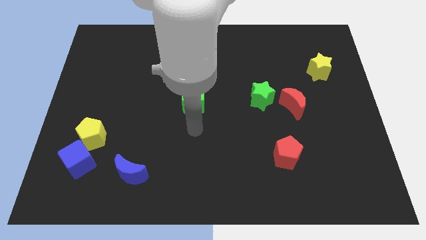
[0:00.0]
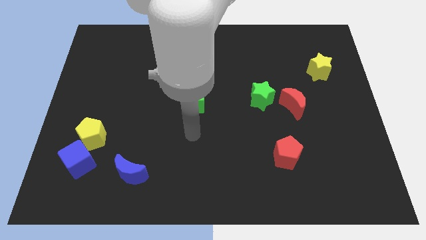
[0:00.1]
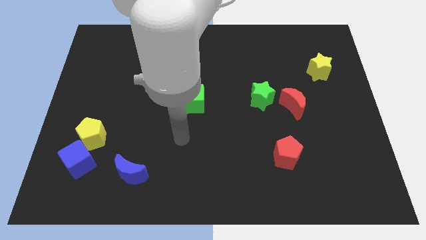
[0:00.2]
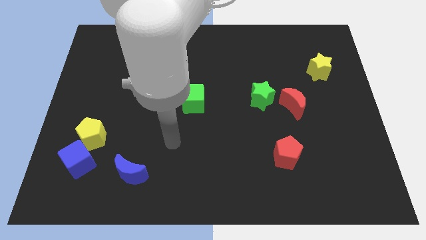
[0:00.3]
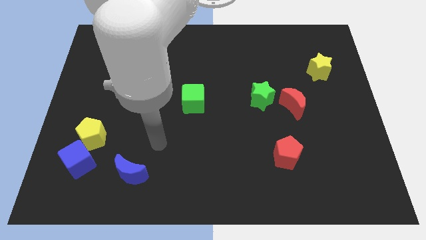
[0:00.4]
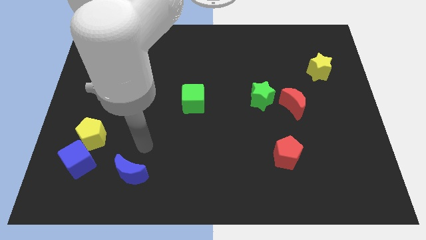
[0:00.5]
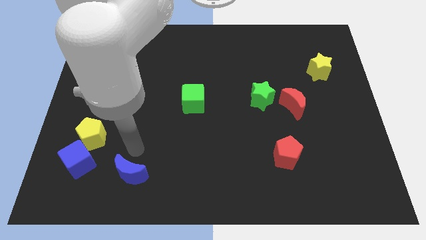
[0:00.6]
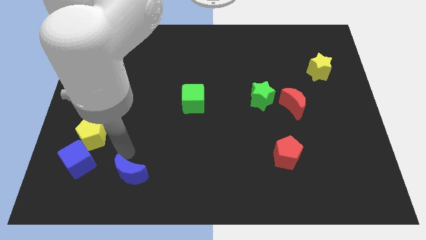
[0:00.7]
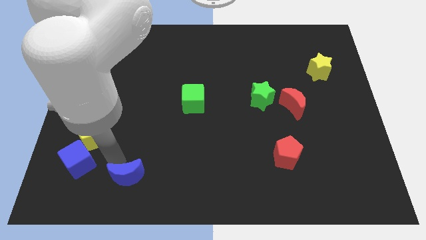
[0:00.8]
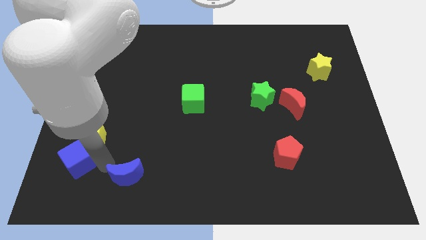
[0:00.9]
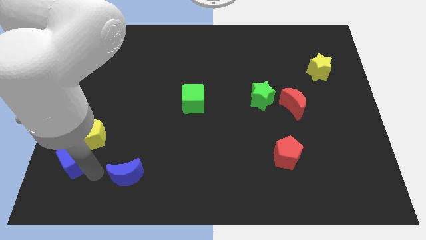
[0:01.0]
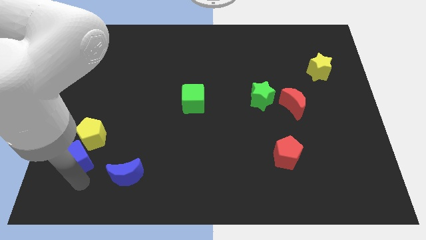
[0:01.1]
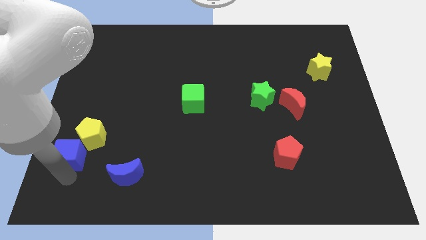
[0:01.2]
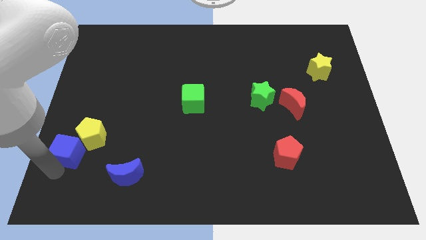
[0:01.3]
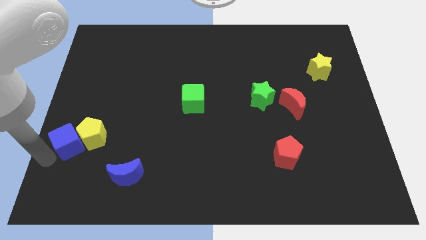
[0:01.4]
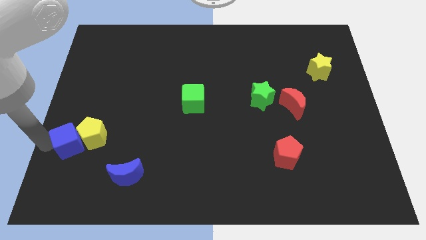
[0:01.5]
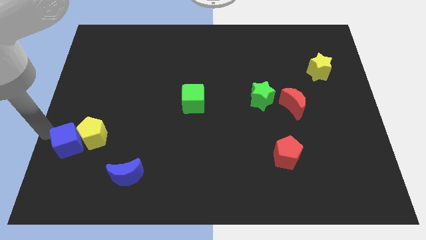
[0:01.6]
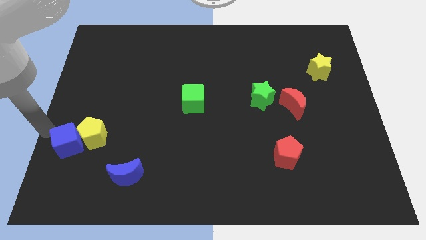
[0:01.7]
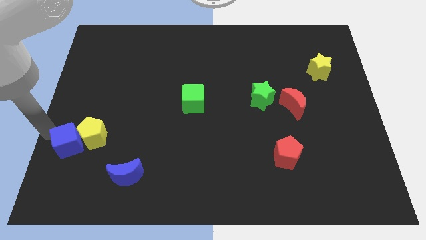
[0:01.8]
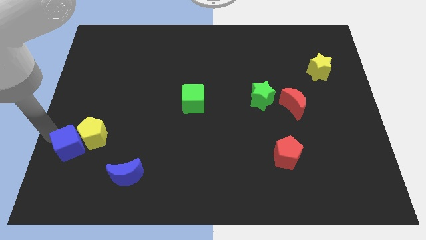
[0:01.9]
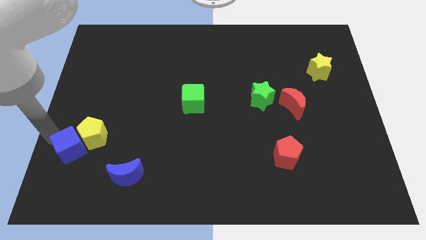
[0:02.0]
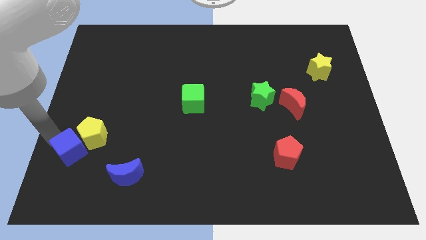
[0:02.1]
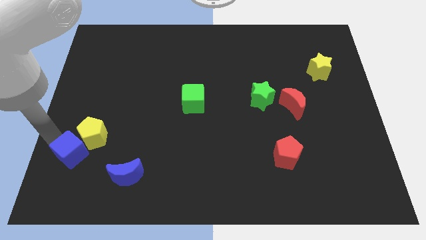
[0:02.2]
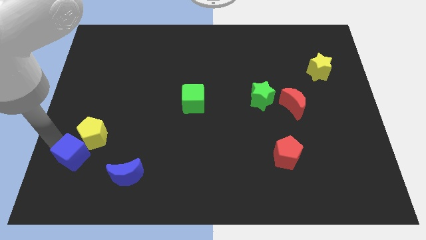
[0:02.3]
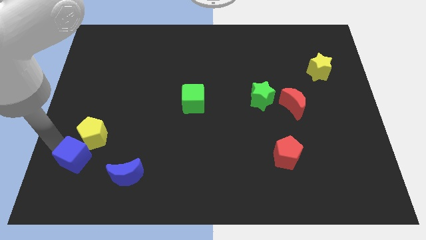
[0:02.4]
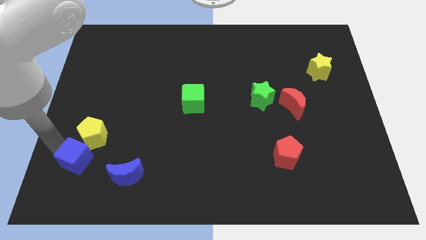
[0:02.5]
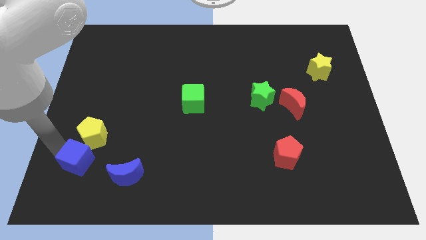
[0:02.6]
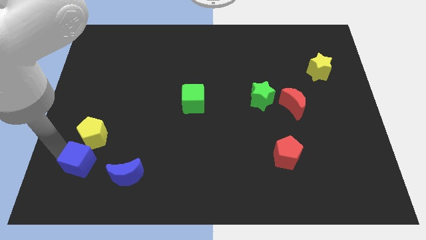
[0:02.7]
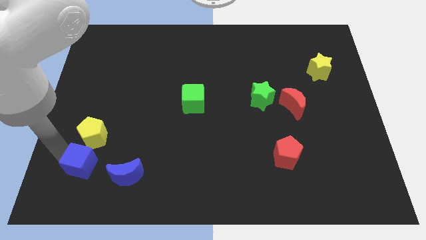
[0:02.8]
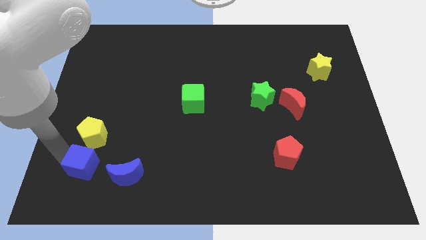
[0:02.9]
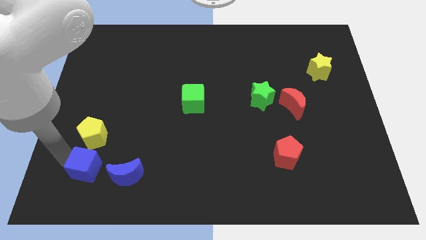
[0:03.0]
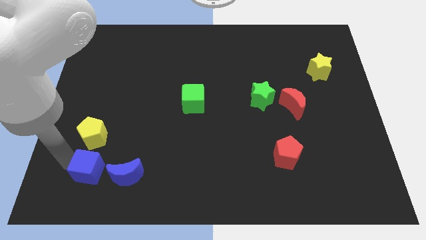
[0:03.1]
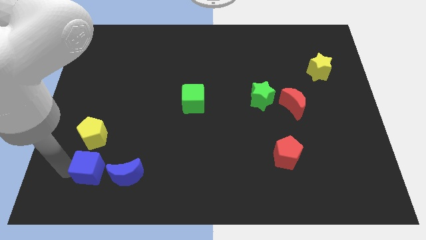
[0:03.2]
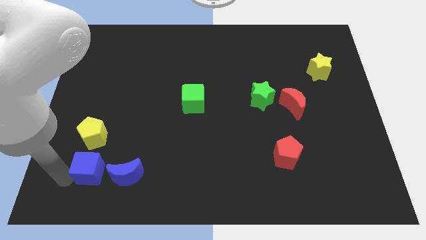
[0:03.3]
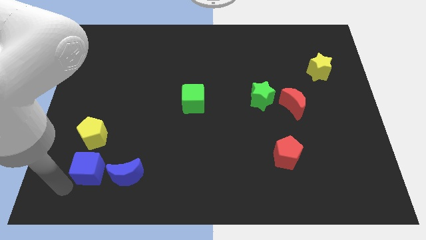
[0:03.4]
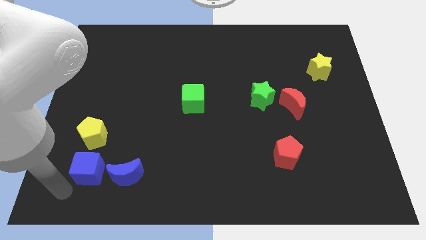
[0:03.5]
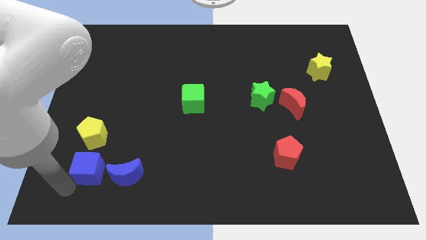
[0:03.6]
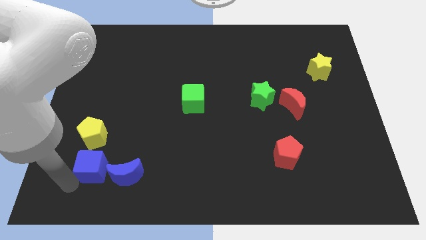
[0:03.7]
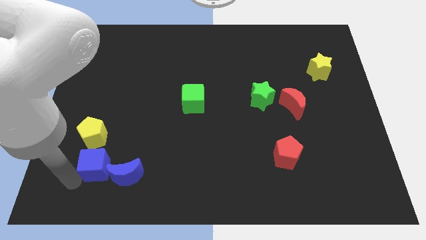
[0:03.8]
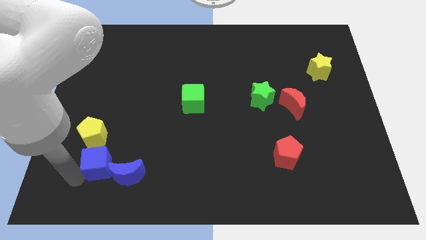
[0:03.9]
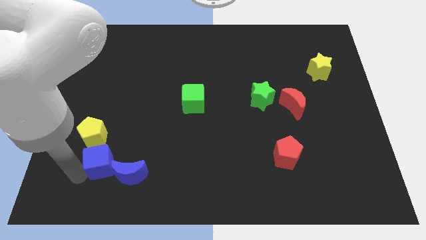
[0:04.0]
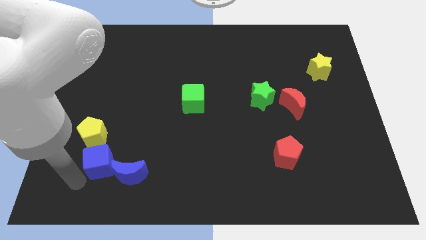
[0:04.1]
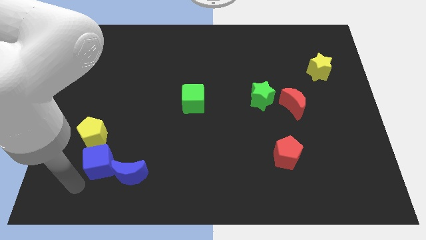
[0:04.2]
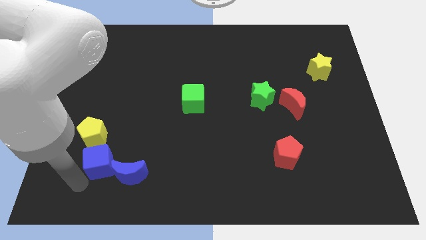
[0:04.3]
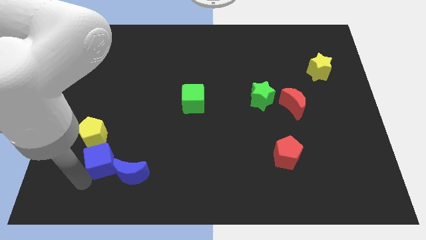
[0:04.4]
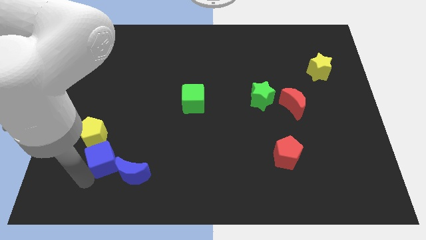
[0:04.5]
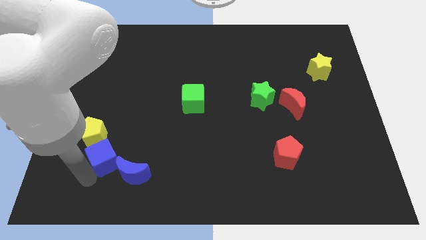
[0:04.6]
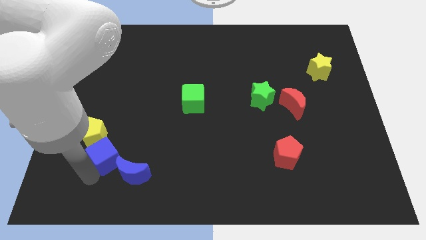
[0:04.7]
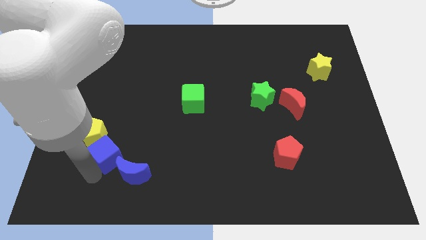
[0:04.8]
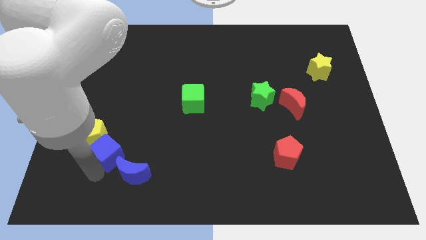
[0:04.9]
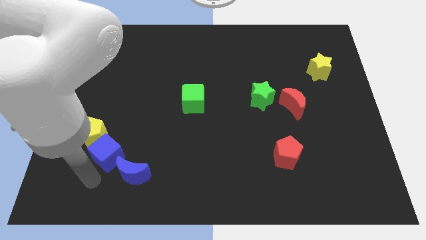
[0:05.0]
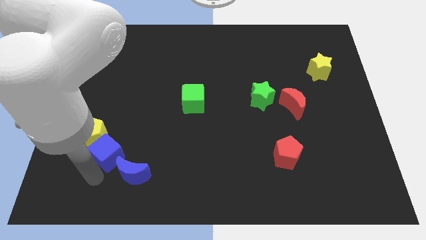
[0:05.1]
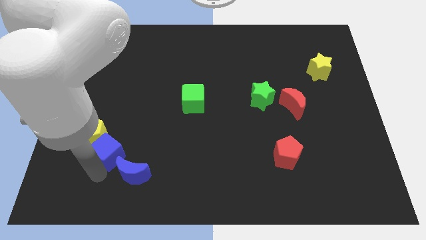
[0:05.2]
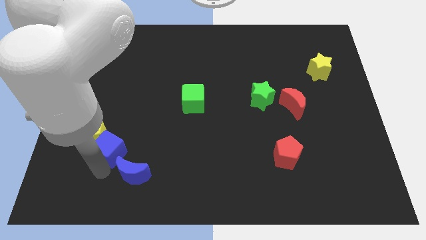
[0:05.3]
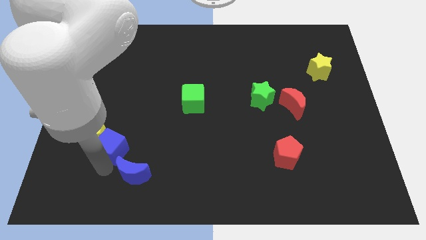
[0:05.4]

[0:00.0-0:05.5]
slightly slide the blue cube diagonally upwards and to the right

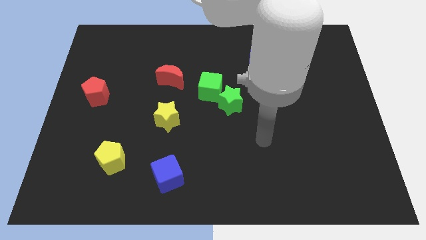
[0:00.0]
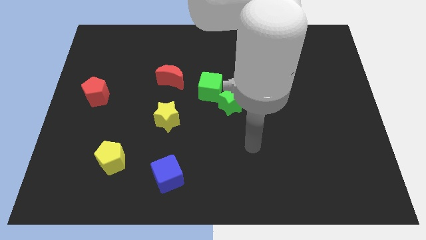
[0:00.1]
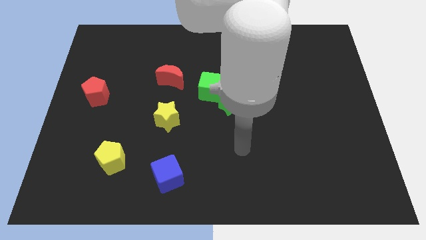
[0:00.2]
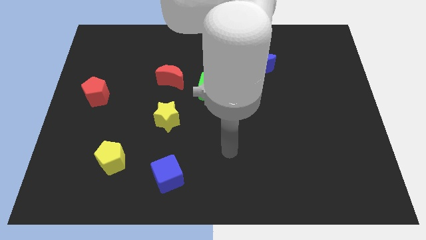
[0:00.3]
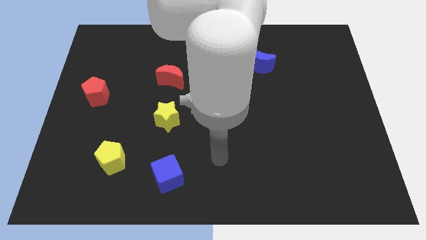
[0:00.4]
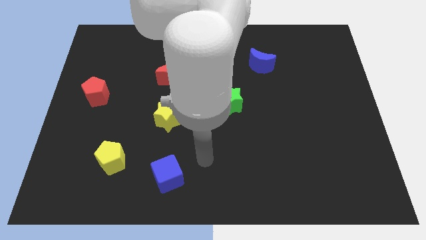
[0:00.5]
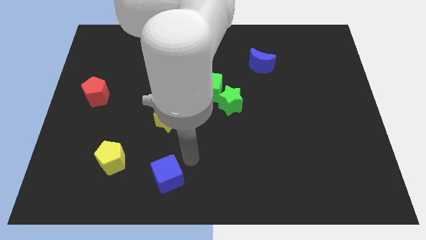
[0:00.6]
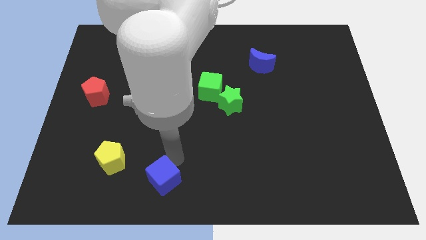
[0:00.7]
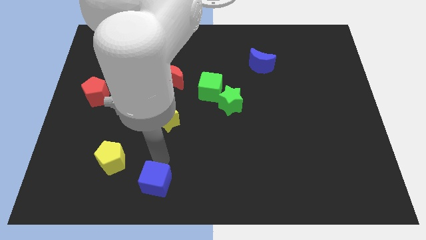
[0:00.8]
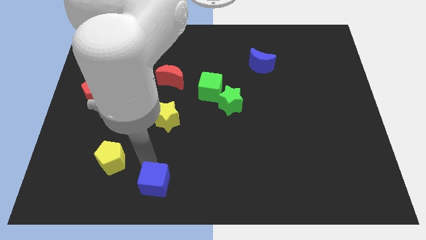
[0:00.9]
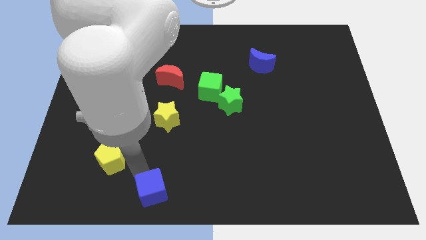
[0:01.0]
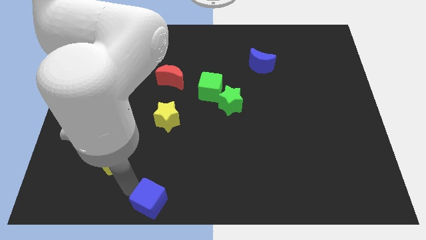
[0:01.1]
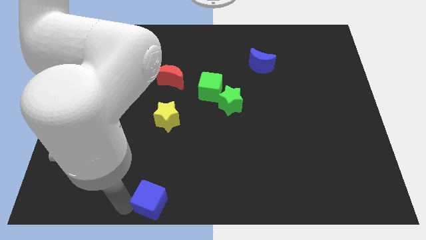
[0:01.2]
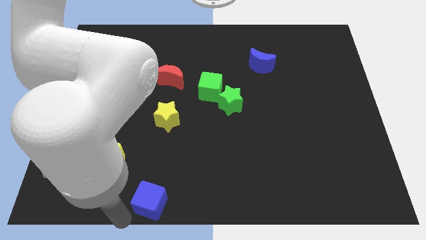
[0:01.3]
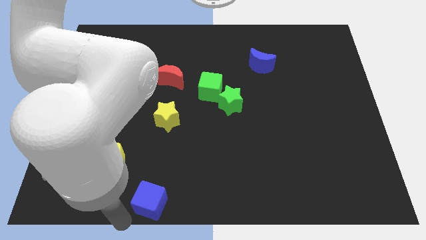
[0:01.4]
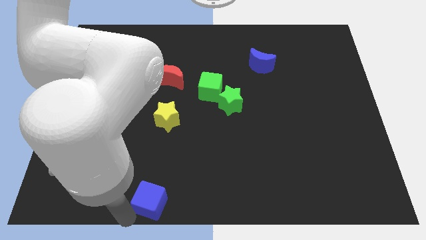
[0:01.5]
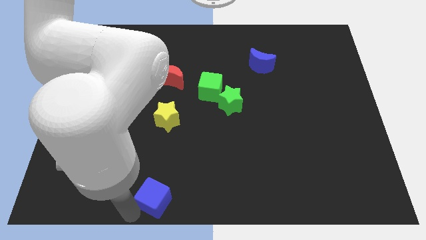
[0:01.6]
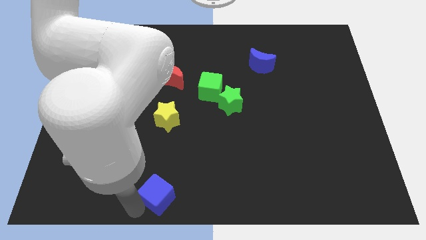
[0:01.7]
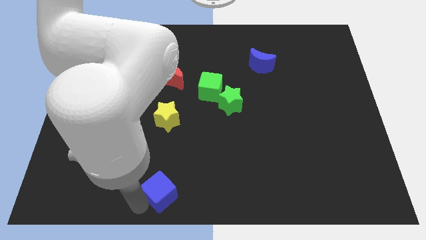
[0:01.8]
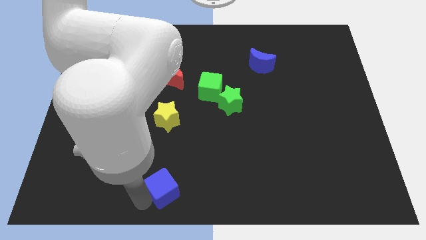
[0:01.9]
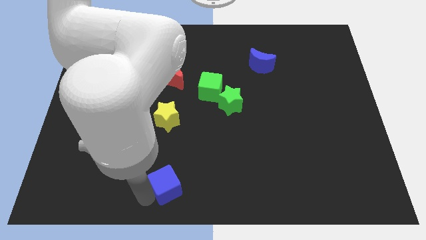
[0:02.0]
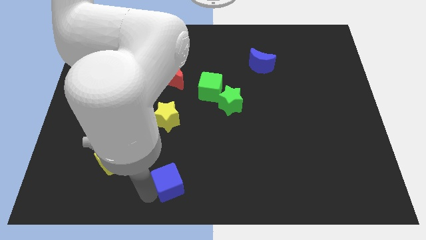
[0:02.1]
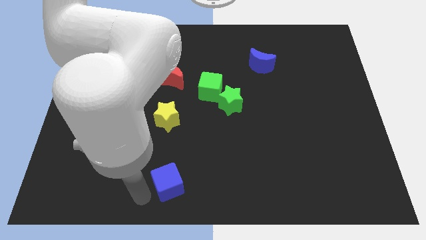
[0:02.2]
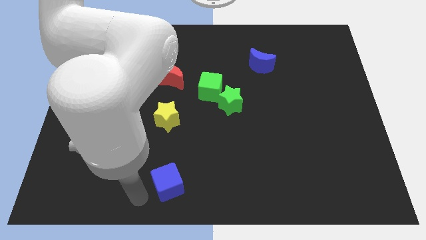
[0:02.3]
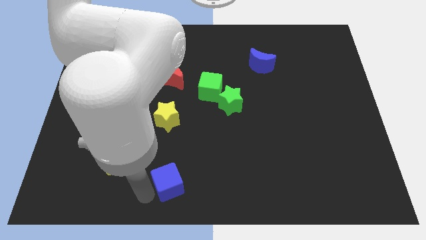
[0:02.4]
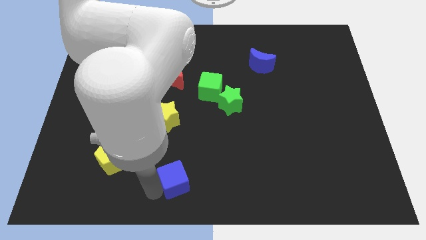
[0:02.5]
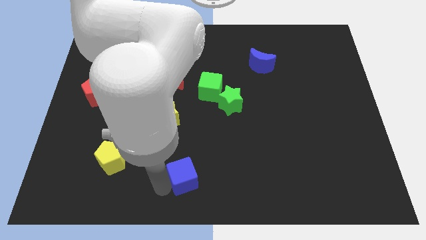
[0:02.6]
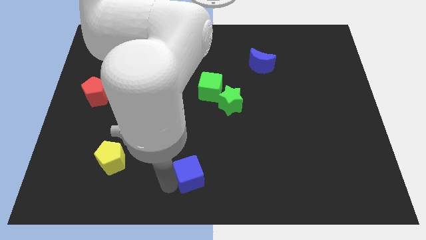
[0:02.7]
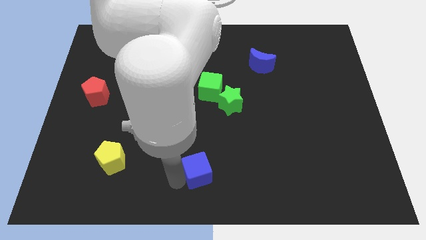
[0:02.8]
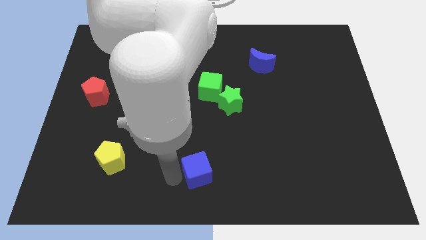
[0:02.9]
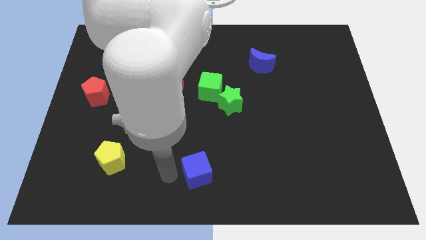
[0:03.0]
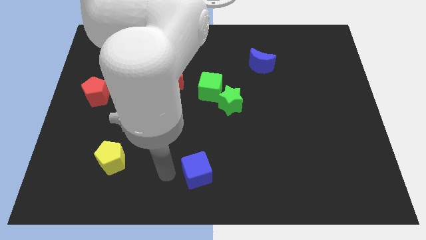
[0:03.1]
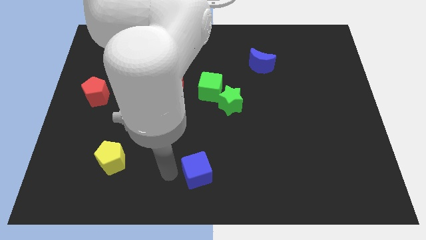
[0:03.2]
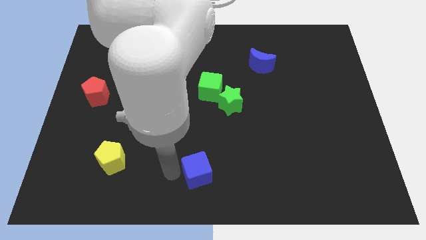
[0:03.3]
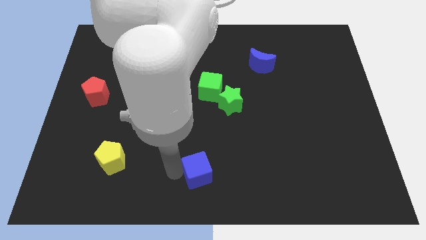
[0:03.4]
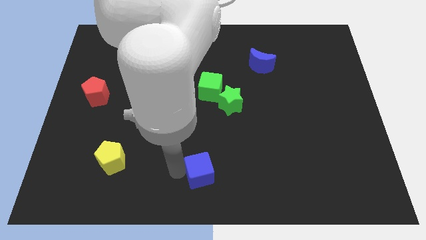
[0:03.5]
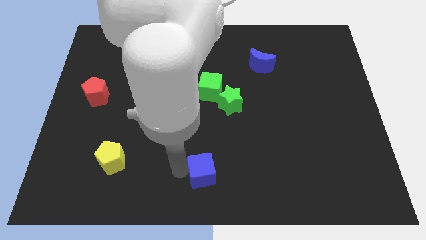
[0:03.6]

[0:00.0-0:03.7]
slightly slide the blue cube to the right
